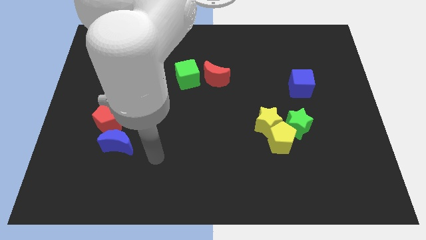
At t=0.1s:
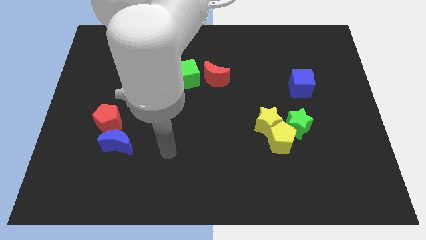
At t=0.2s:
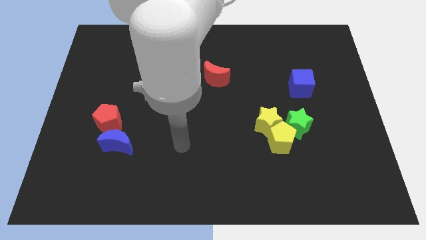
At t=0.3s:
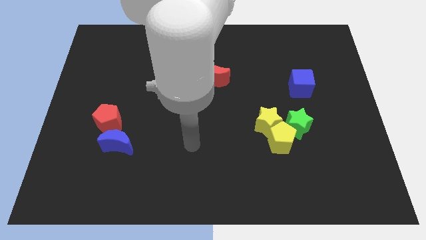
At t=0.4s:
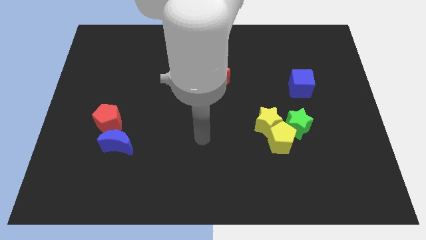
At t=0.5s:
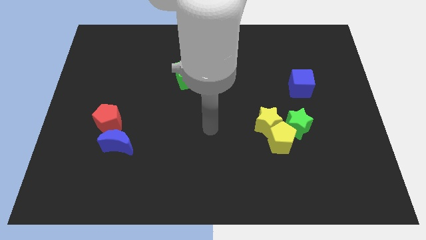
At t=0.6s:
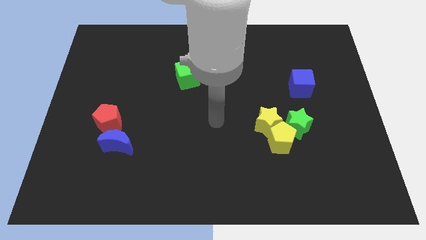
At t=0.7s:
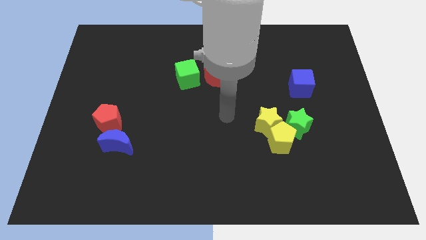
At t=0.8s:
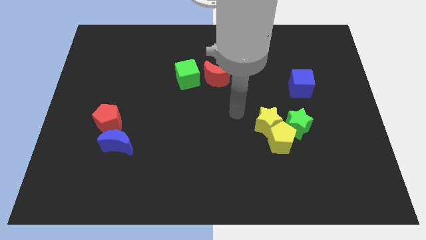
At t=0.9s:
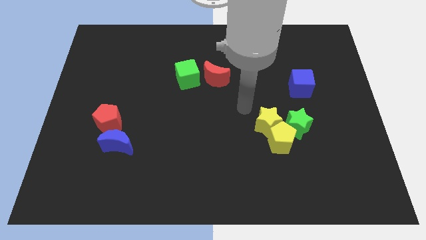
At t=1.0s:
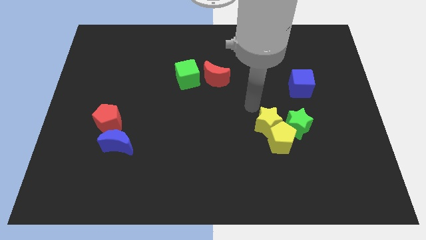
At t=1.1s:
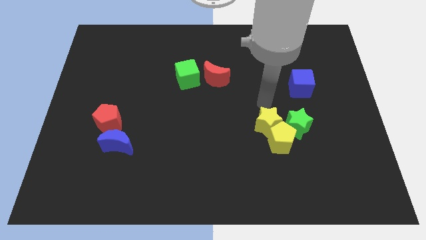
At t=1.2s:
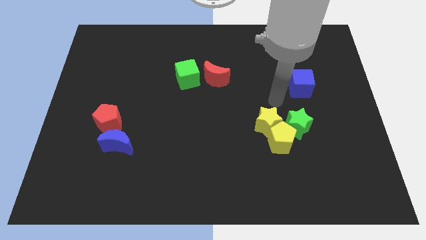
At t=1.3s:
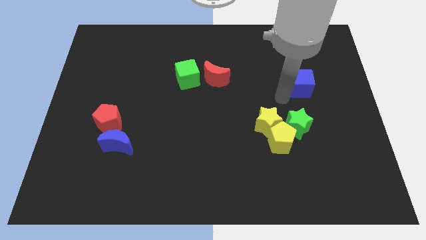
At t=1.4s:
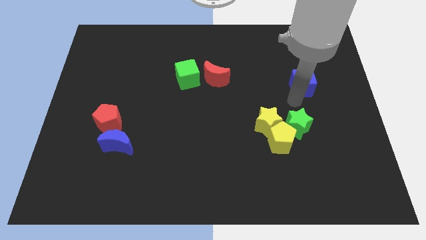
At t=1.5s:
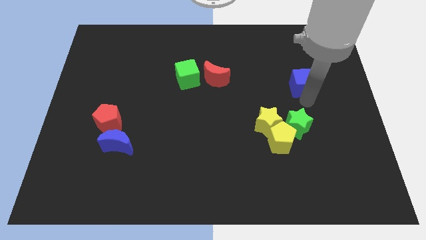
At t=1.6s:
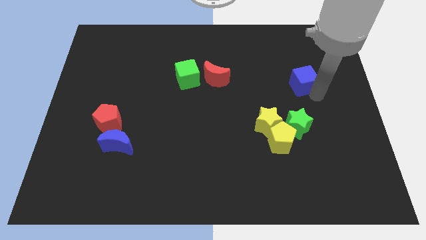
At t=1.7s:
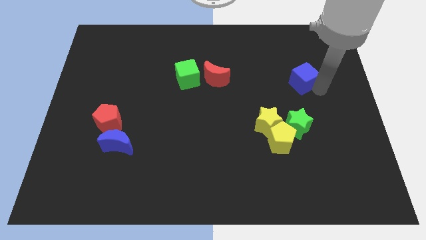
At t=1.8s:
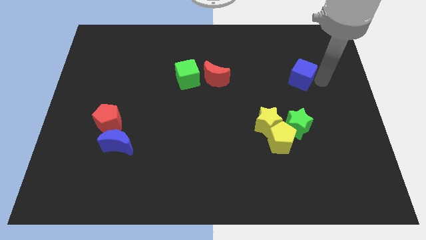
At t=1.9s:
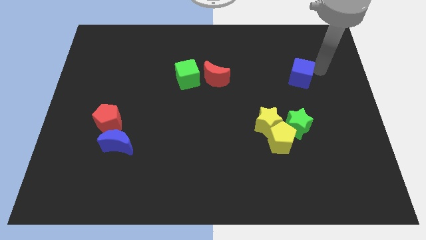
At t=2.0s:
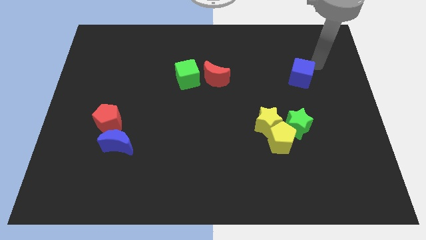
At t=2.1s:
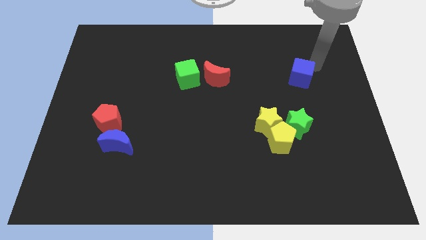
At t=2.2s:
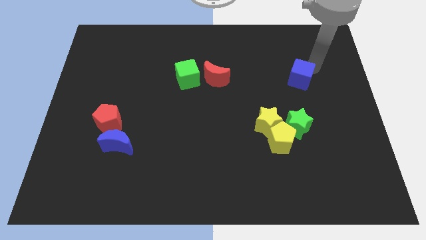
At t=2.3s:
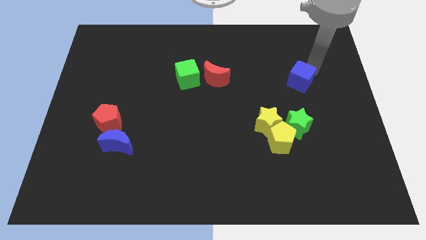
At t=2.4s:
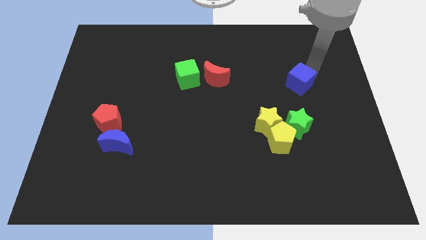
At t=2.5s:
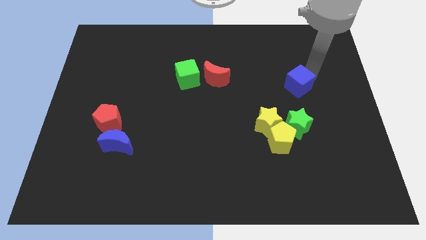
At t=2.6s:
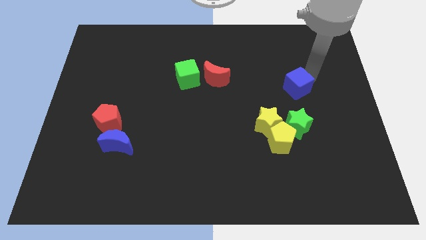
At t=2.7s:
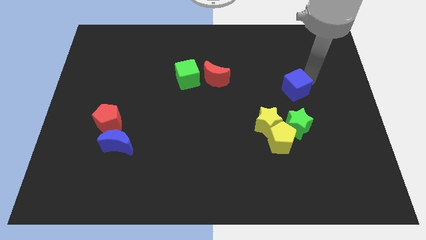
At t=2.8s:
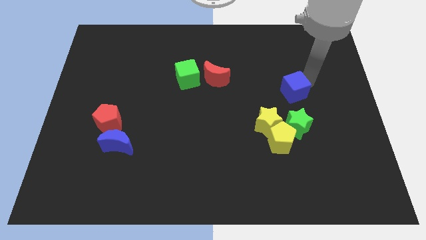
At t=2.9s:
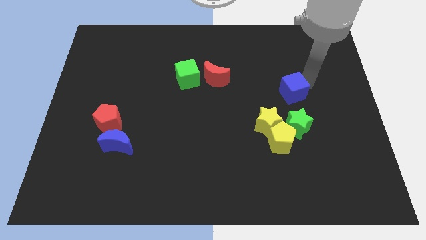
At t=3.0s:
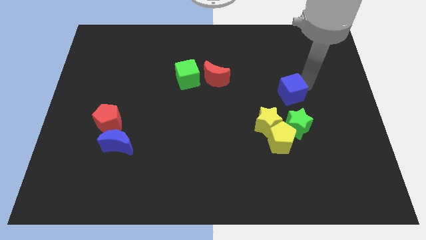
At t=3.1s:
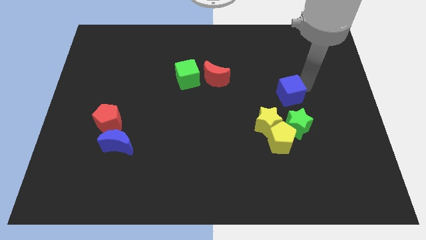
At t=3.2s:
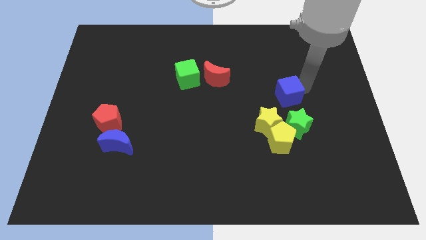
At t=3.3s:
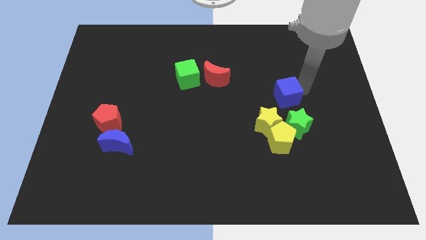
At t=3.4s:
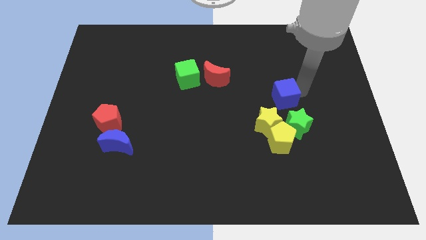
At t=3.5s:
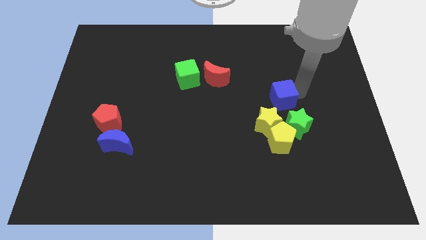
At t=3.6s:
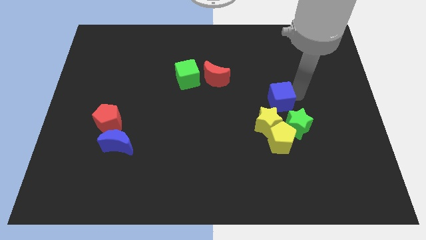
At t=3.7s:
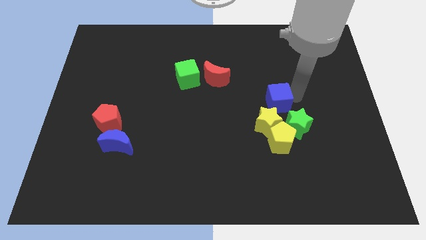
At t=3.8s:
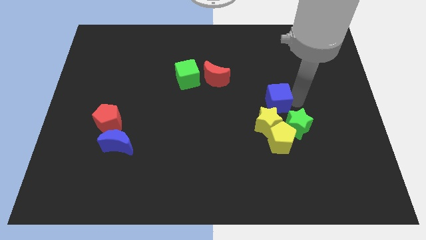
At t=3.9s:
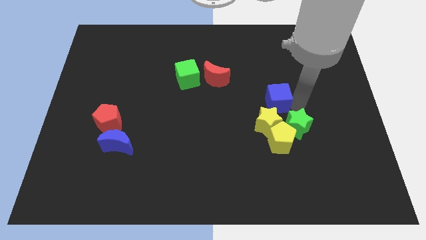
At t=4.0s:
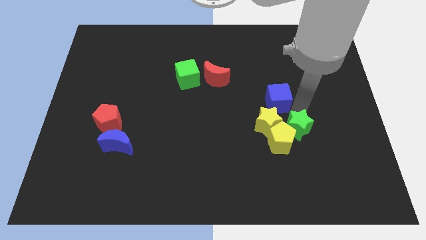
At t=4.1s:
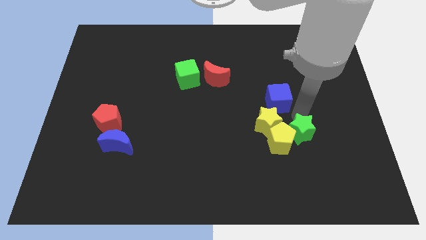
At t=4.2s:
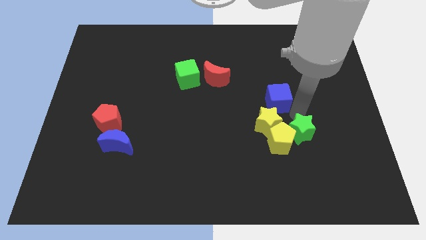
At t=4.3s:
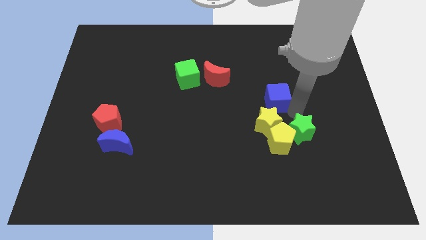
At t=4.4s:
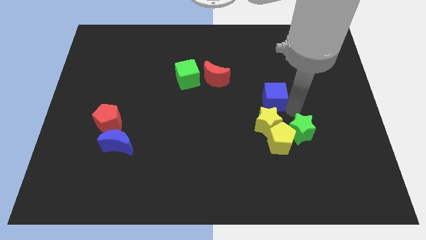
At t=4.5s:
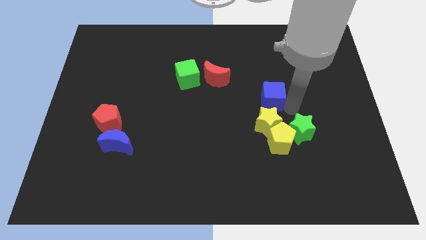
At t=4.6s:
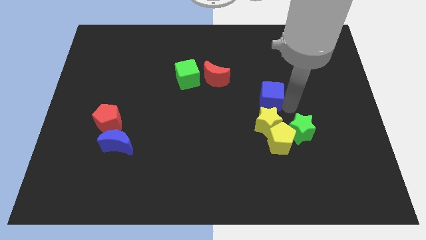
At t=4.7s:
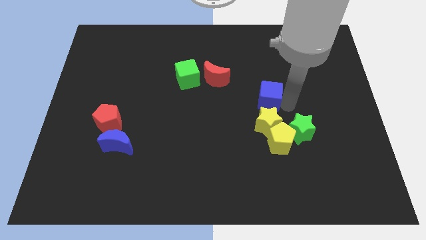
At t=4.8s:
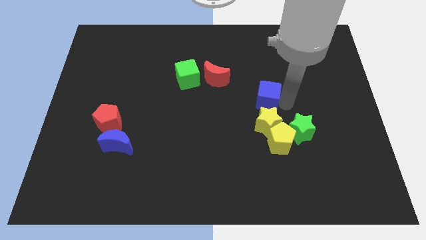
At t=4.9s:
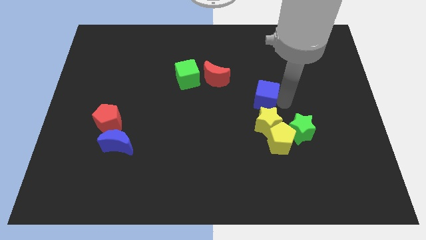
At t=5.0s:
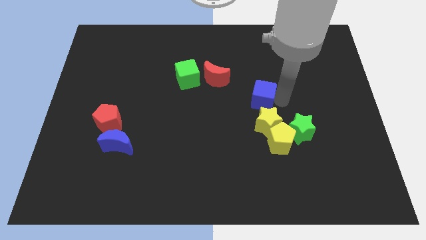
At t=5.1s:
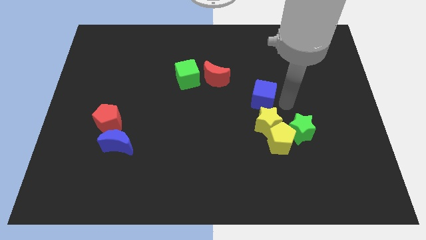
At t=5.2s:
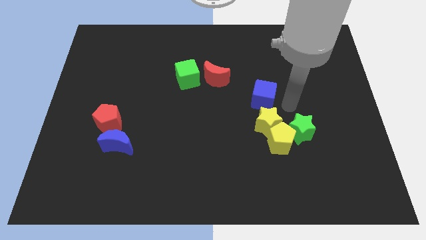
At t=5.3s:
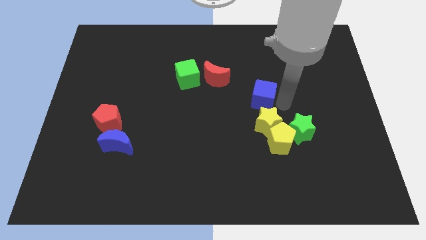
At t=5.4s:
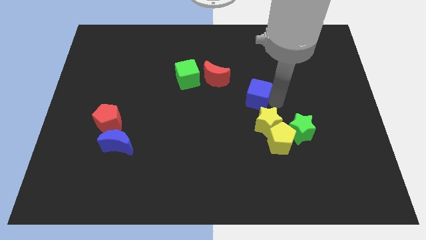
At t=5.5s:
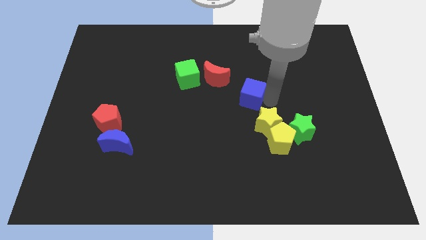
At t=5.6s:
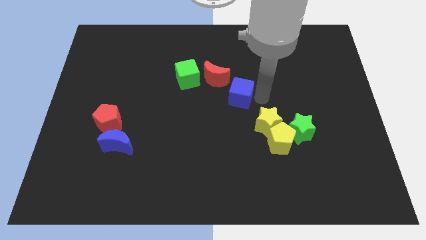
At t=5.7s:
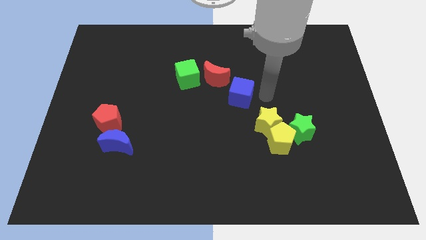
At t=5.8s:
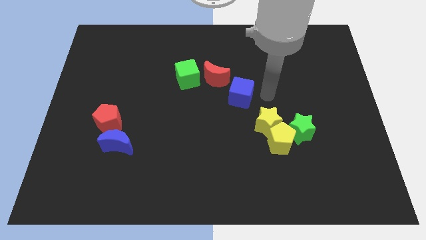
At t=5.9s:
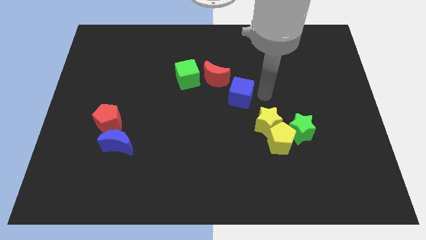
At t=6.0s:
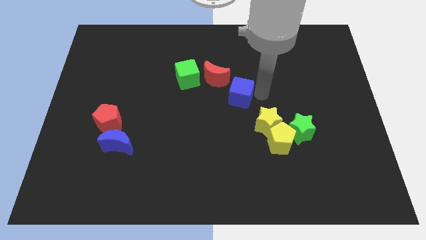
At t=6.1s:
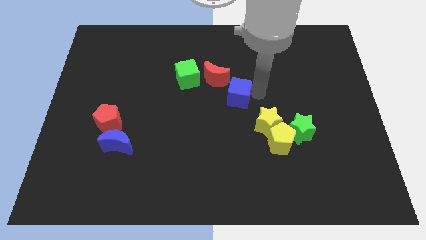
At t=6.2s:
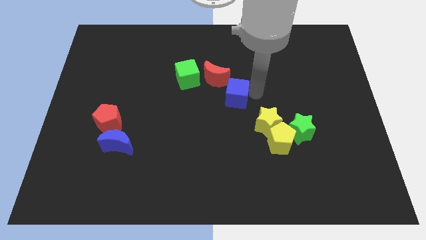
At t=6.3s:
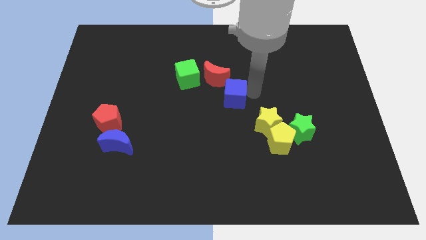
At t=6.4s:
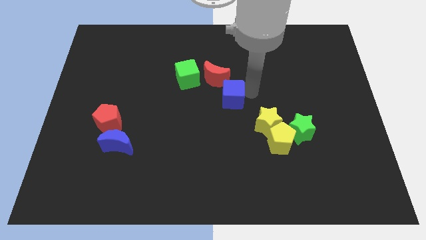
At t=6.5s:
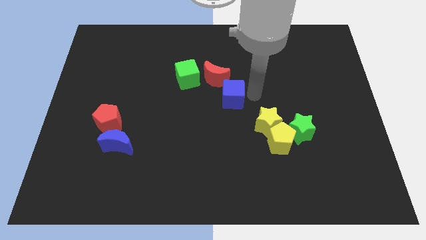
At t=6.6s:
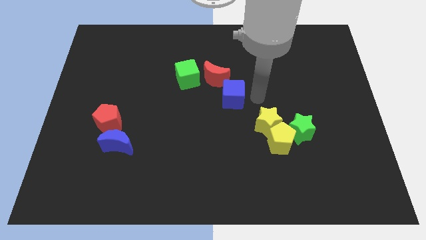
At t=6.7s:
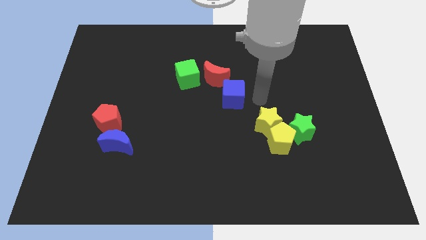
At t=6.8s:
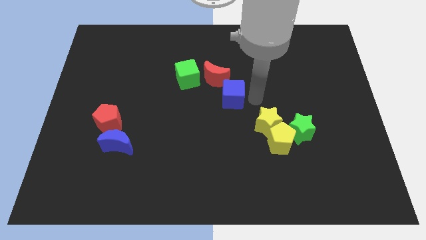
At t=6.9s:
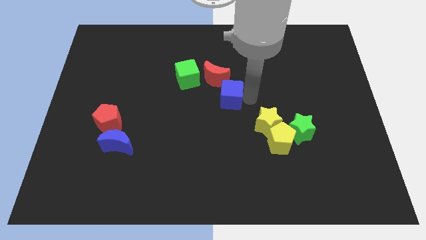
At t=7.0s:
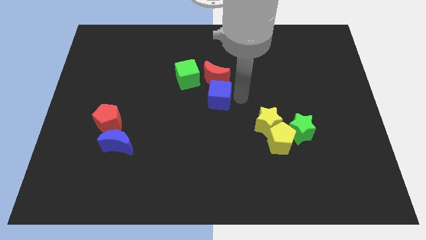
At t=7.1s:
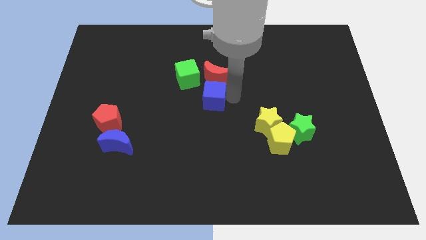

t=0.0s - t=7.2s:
slide the blue cube to the left

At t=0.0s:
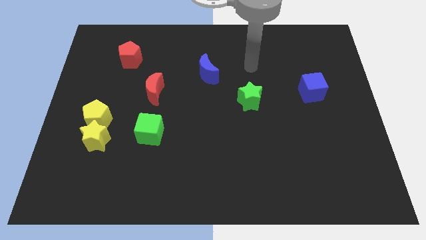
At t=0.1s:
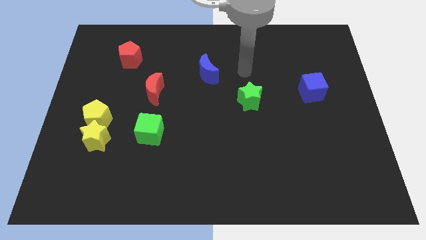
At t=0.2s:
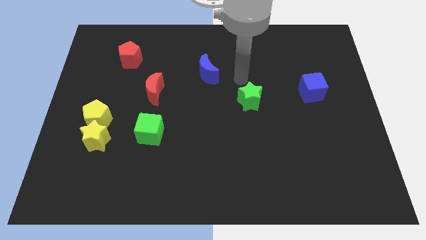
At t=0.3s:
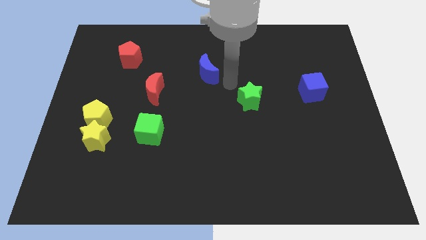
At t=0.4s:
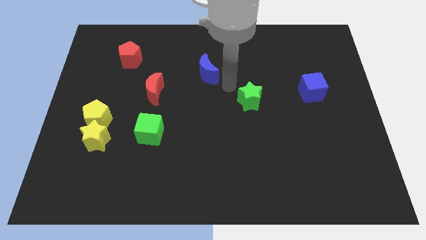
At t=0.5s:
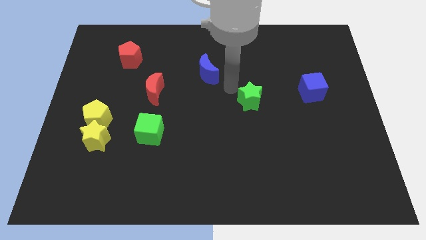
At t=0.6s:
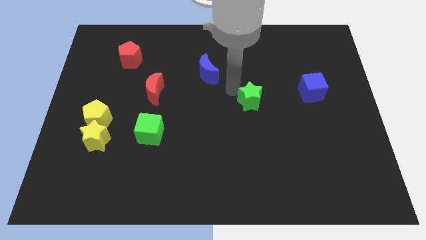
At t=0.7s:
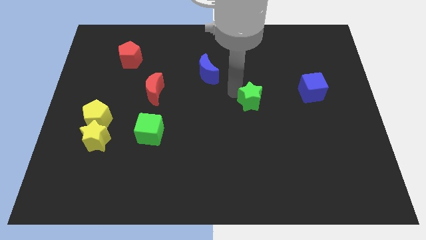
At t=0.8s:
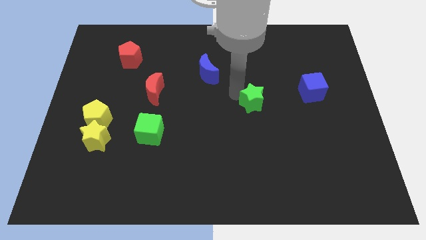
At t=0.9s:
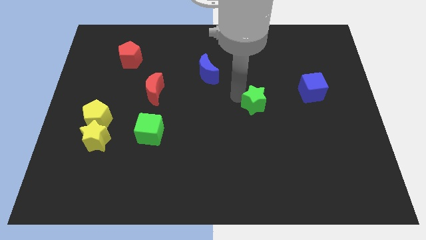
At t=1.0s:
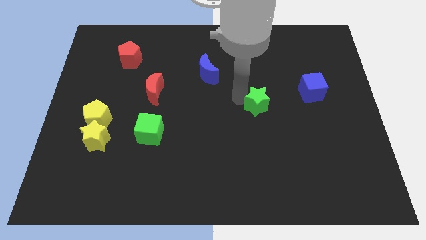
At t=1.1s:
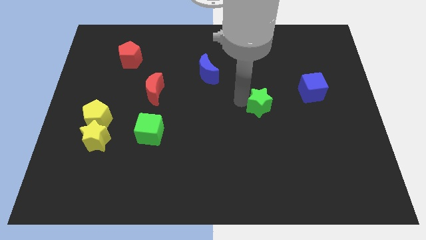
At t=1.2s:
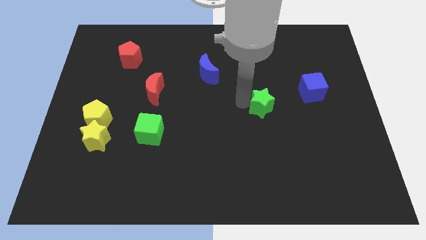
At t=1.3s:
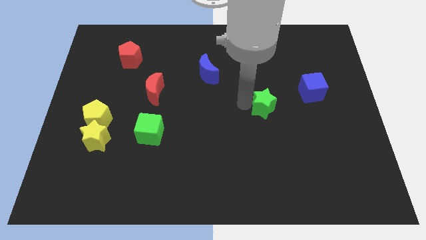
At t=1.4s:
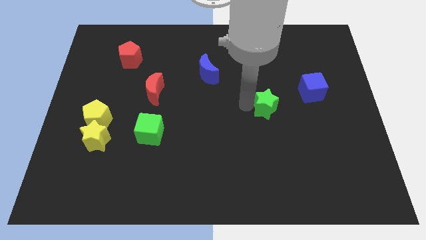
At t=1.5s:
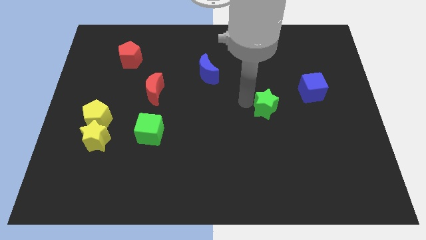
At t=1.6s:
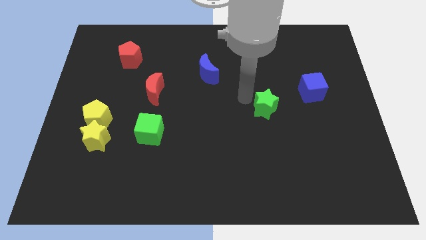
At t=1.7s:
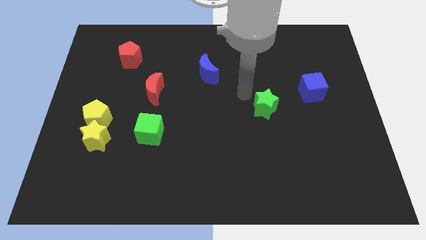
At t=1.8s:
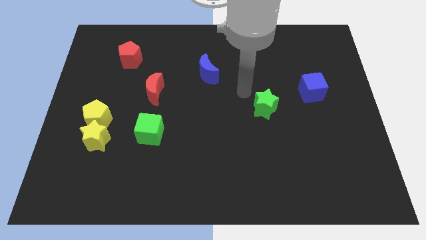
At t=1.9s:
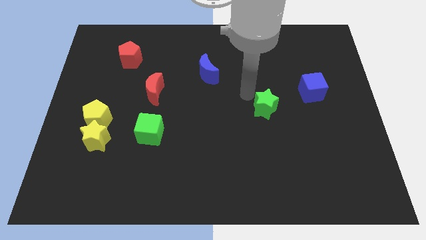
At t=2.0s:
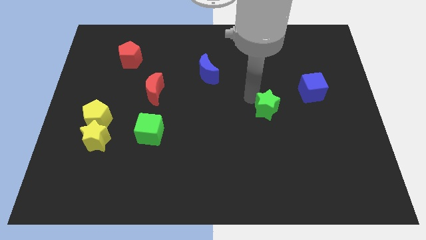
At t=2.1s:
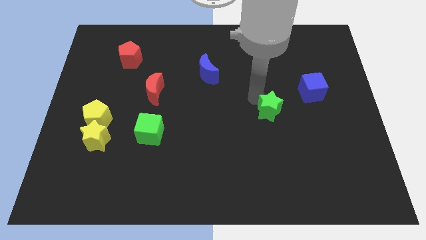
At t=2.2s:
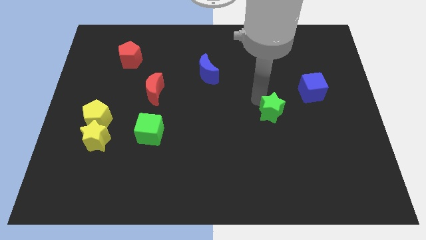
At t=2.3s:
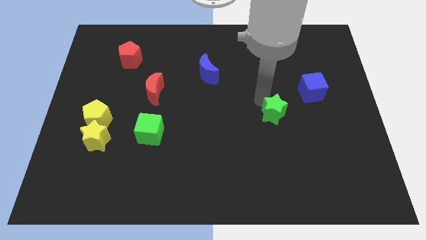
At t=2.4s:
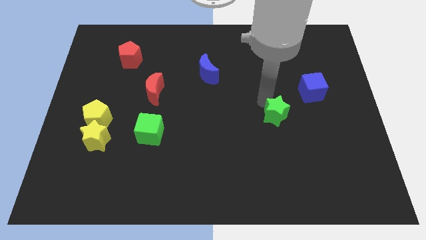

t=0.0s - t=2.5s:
slide the green star somewhat down and to the right
